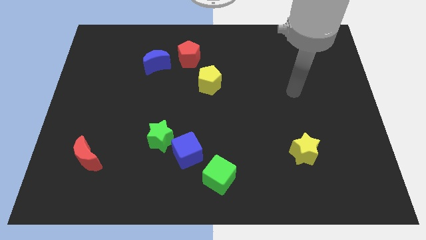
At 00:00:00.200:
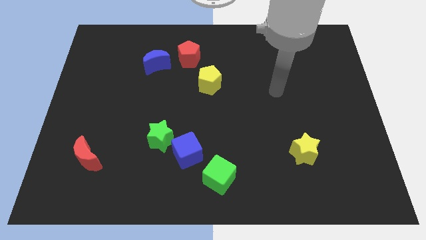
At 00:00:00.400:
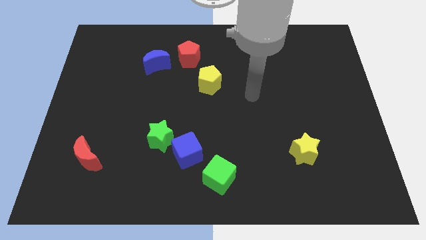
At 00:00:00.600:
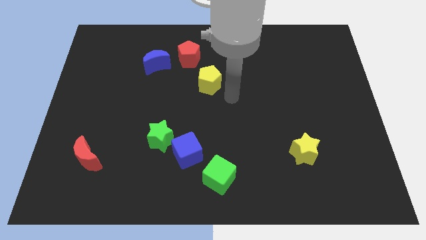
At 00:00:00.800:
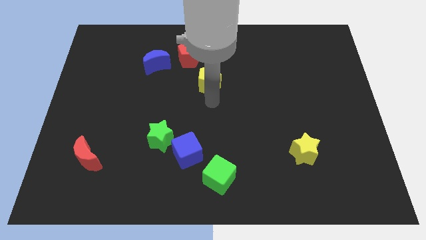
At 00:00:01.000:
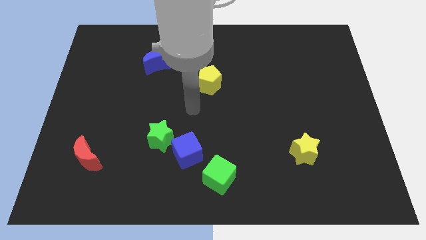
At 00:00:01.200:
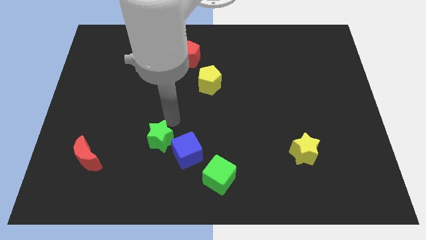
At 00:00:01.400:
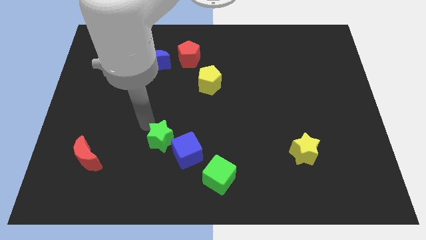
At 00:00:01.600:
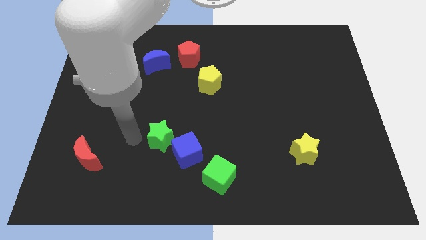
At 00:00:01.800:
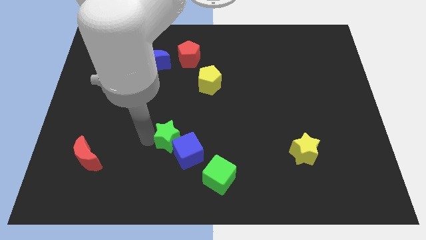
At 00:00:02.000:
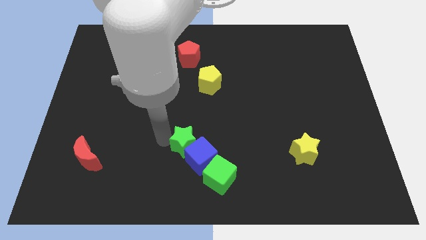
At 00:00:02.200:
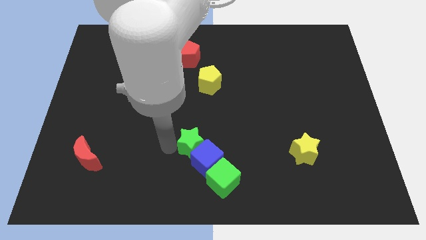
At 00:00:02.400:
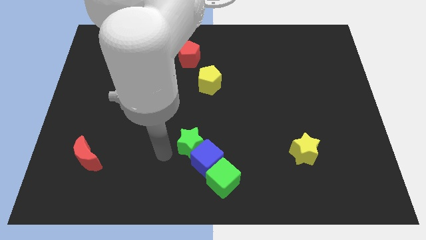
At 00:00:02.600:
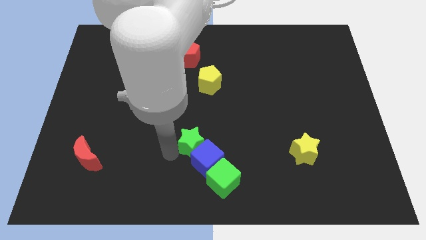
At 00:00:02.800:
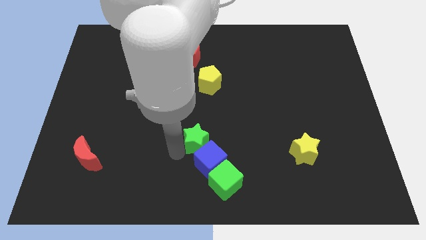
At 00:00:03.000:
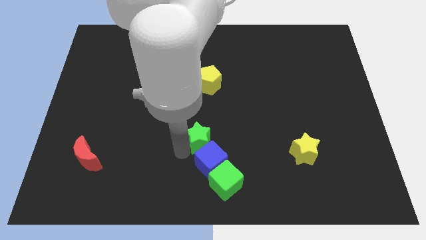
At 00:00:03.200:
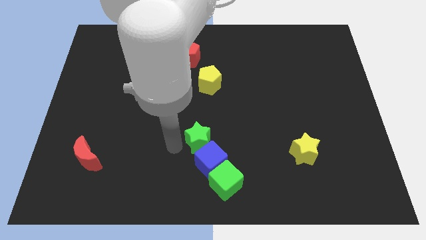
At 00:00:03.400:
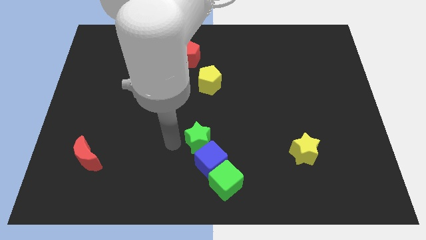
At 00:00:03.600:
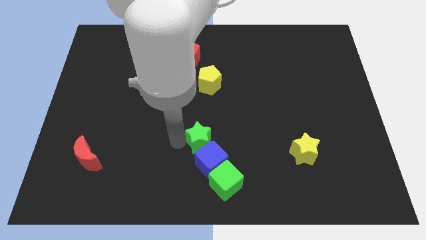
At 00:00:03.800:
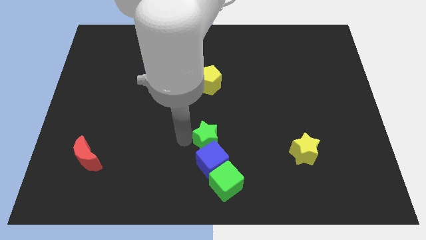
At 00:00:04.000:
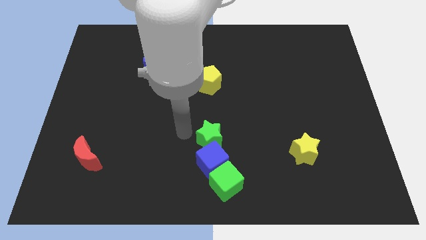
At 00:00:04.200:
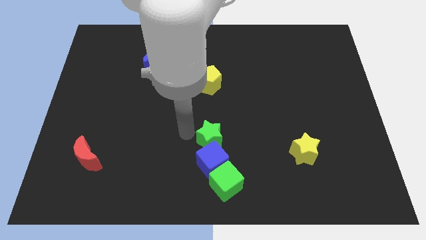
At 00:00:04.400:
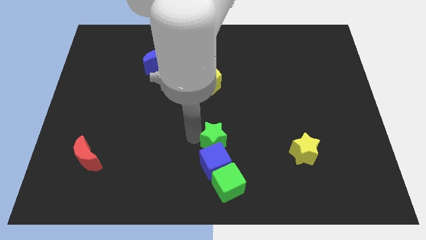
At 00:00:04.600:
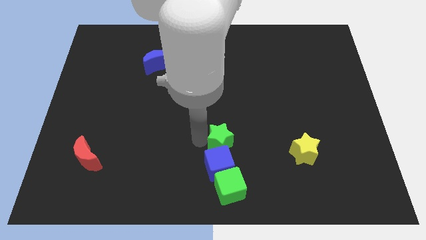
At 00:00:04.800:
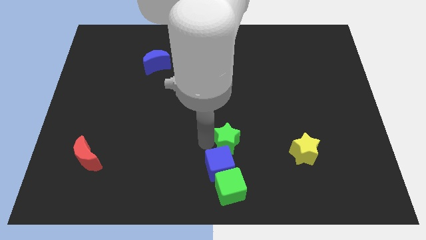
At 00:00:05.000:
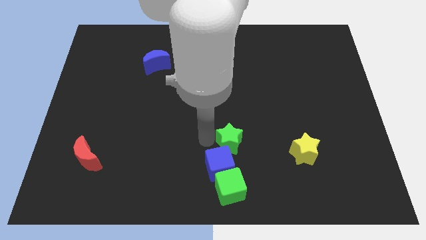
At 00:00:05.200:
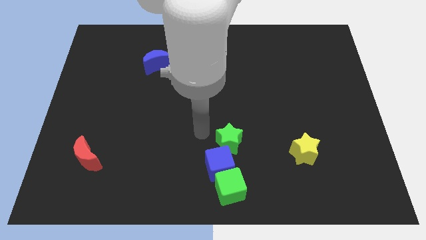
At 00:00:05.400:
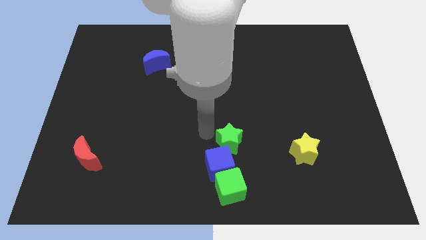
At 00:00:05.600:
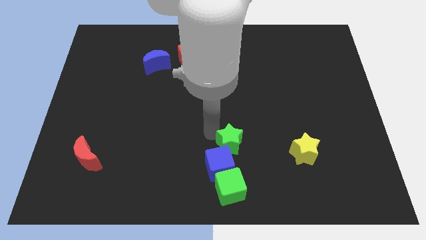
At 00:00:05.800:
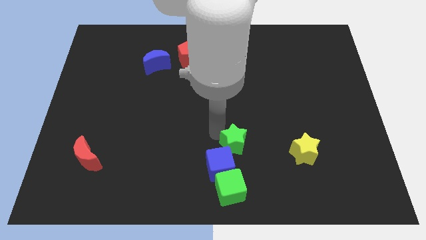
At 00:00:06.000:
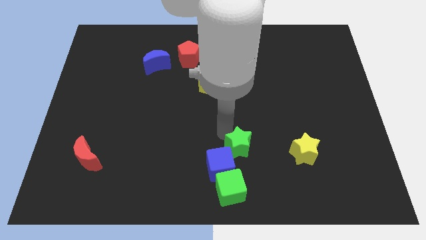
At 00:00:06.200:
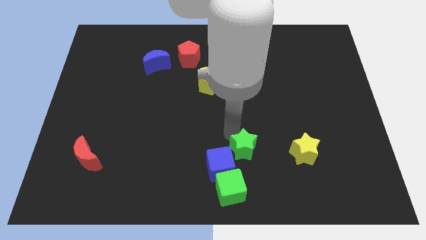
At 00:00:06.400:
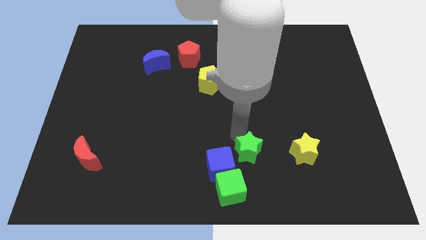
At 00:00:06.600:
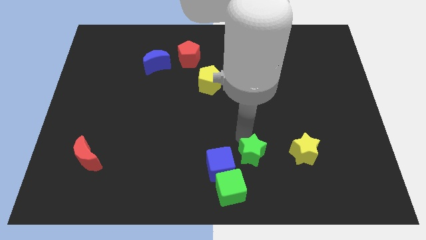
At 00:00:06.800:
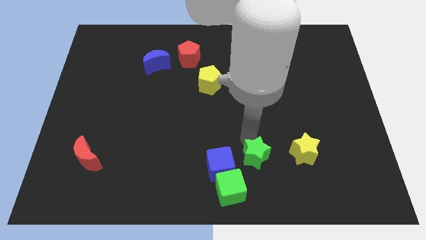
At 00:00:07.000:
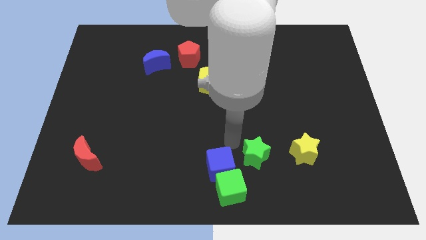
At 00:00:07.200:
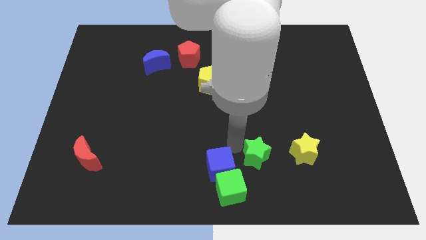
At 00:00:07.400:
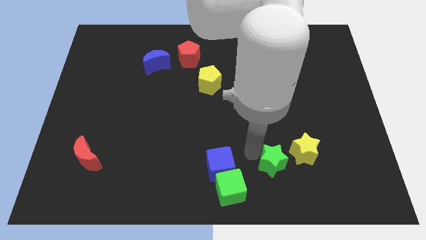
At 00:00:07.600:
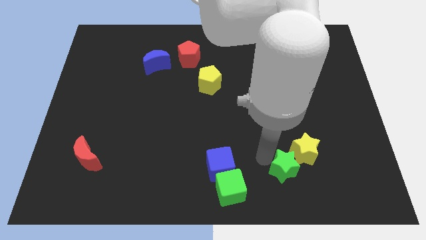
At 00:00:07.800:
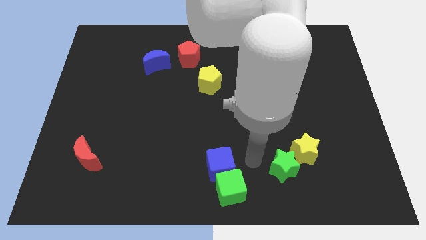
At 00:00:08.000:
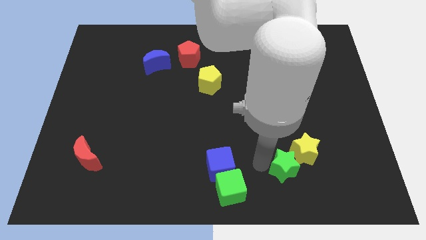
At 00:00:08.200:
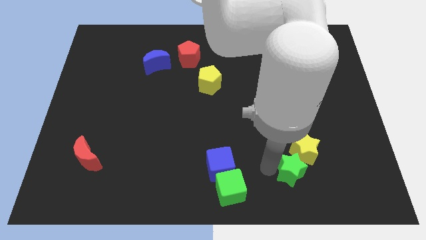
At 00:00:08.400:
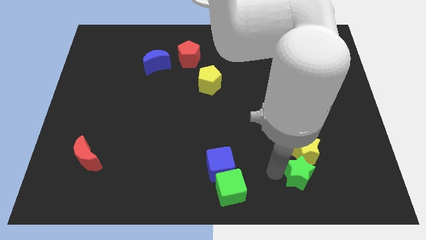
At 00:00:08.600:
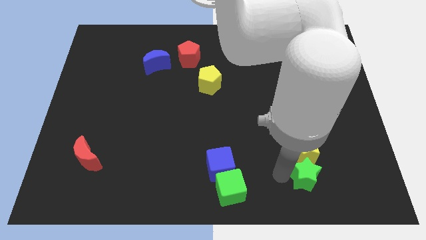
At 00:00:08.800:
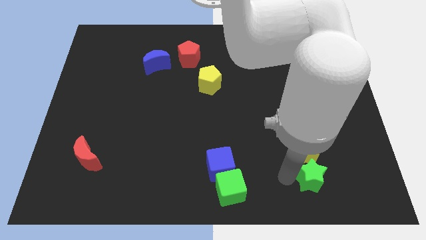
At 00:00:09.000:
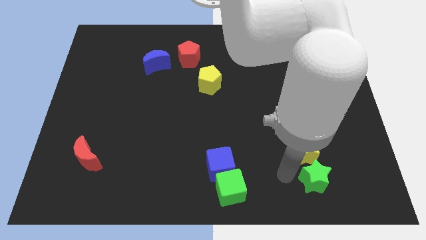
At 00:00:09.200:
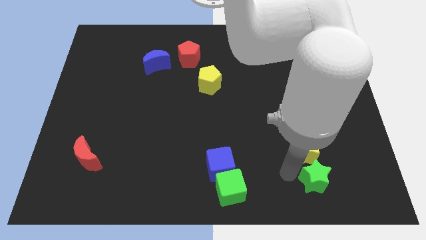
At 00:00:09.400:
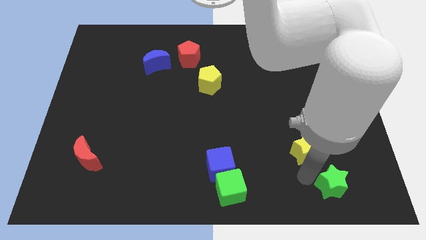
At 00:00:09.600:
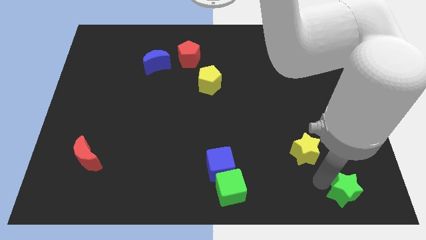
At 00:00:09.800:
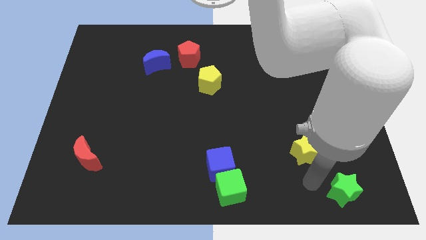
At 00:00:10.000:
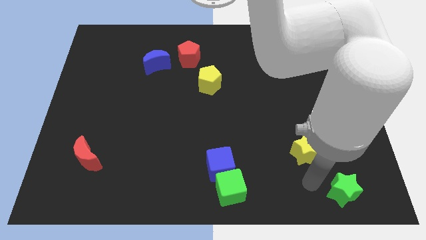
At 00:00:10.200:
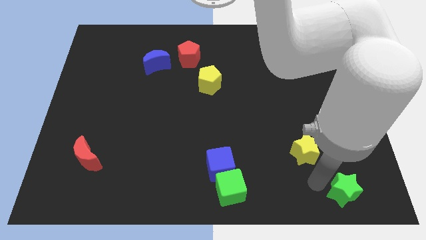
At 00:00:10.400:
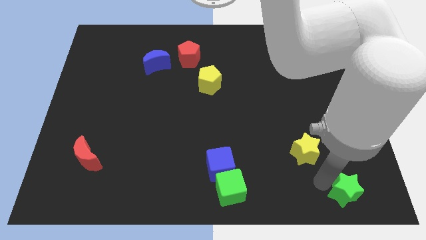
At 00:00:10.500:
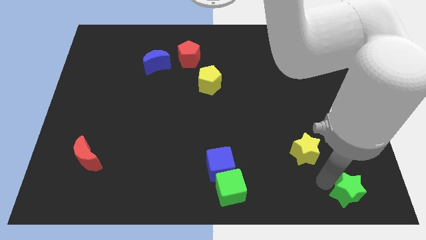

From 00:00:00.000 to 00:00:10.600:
push the green star to the bottom right corner
